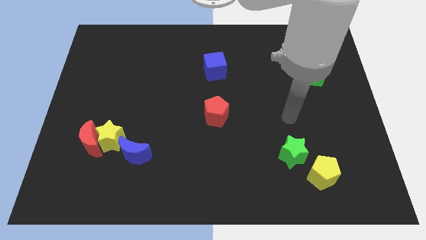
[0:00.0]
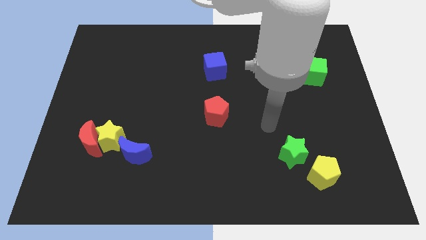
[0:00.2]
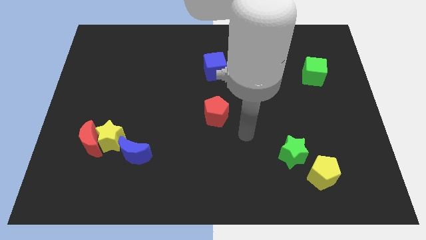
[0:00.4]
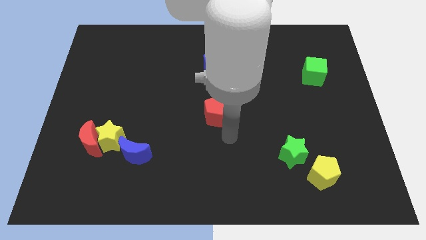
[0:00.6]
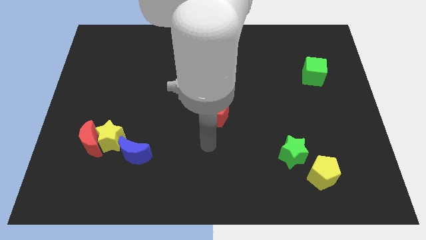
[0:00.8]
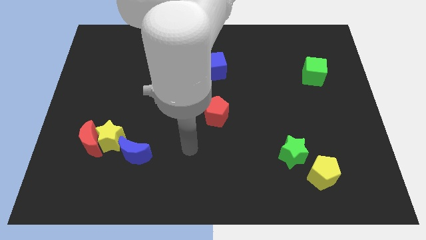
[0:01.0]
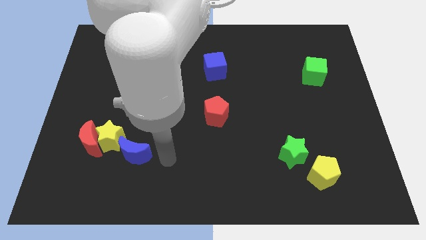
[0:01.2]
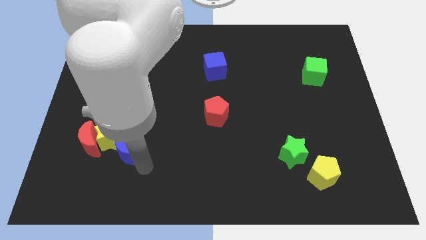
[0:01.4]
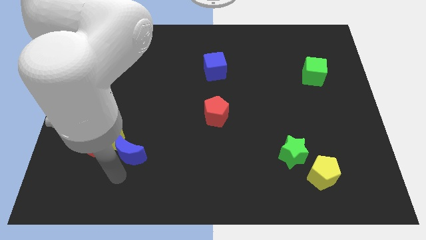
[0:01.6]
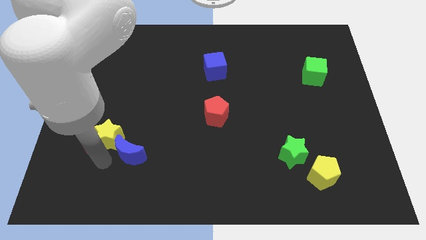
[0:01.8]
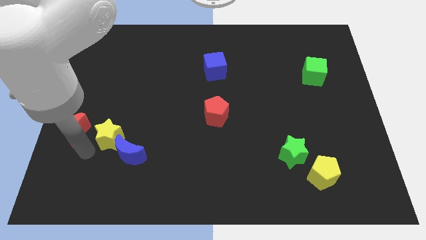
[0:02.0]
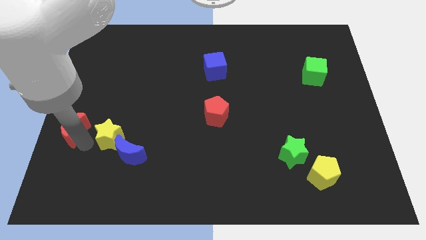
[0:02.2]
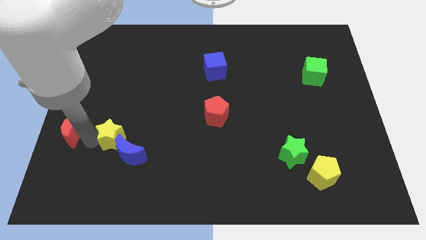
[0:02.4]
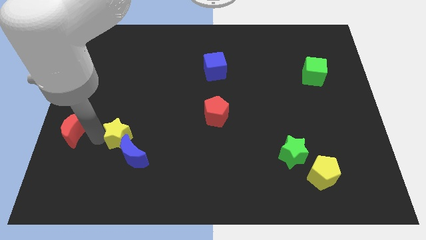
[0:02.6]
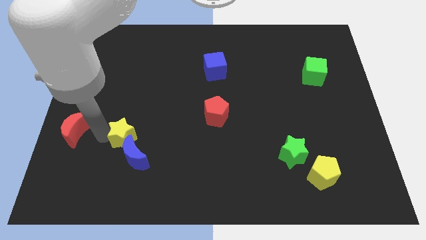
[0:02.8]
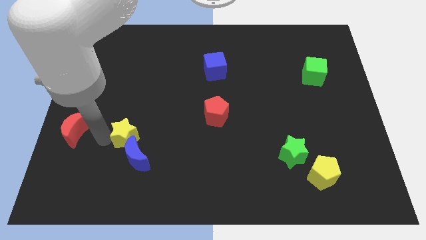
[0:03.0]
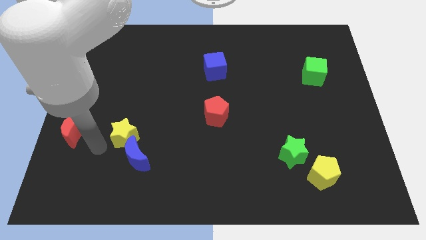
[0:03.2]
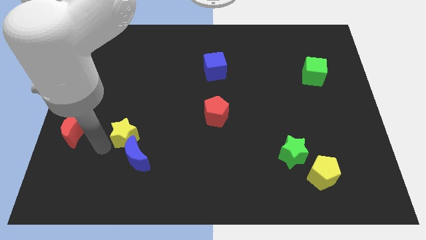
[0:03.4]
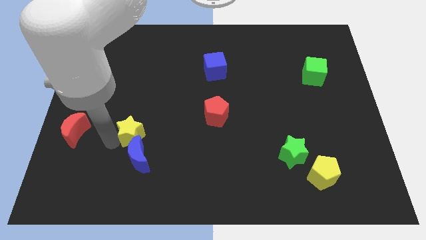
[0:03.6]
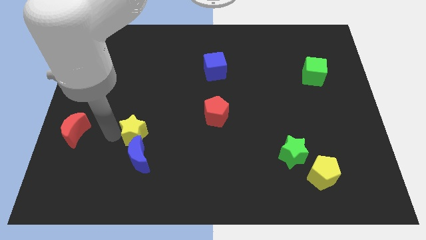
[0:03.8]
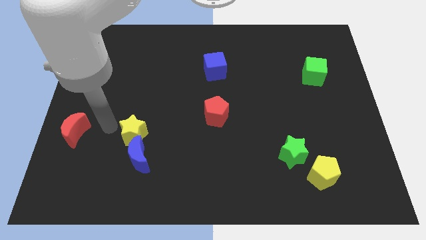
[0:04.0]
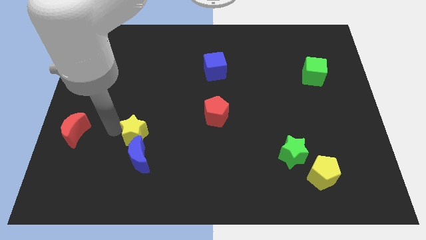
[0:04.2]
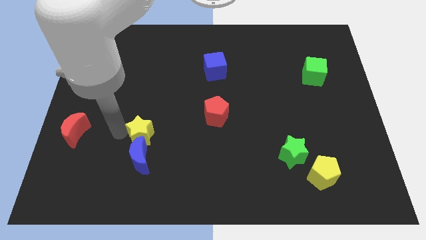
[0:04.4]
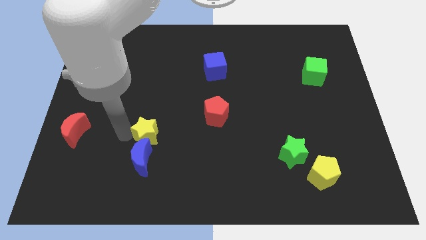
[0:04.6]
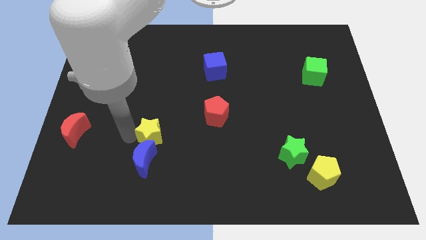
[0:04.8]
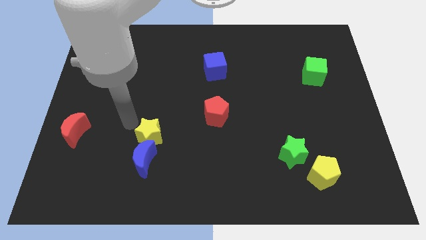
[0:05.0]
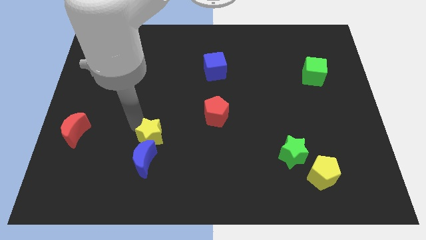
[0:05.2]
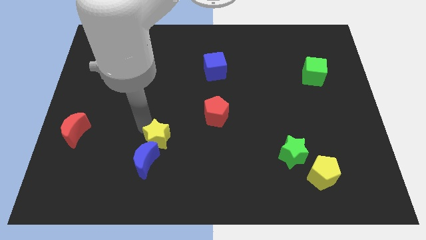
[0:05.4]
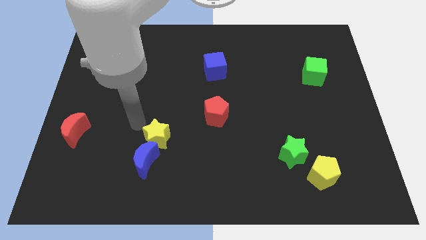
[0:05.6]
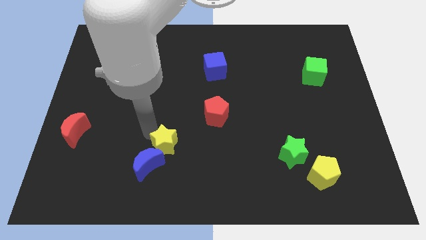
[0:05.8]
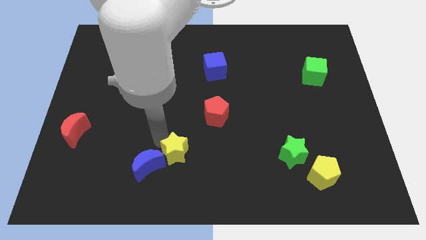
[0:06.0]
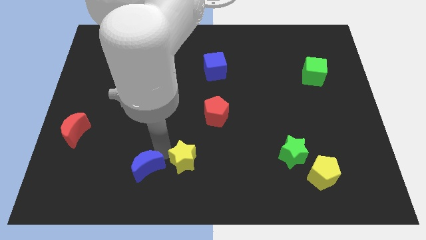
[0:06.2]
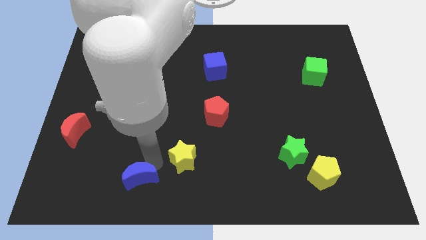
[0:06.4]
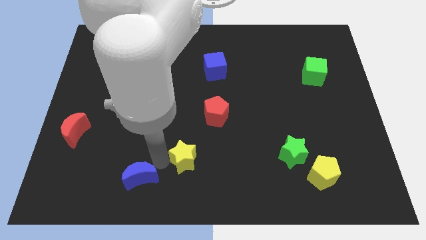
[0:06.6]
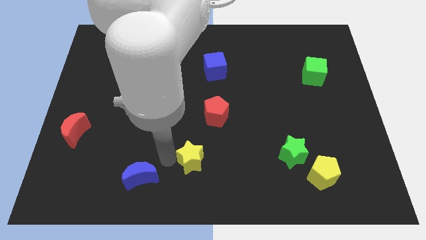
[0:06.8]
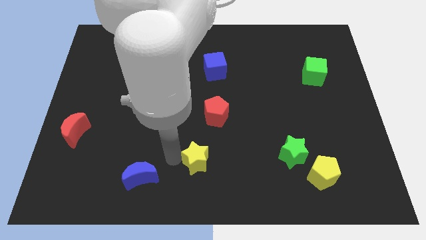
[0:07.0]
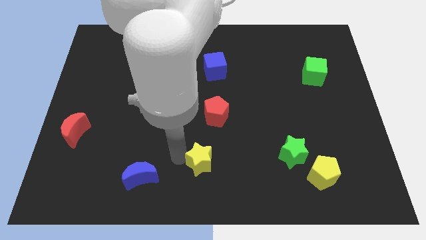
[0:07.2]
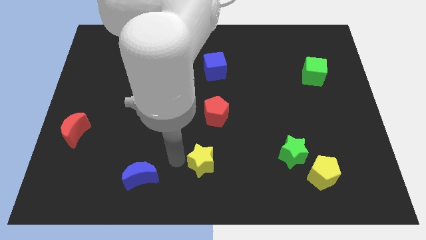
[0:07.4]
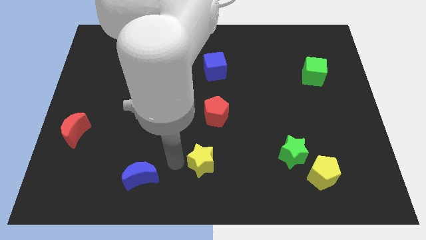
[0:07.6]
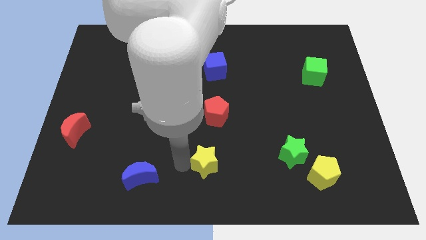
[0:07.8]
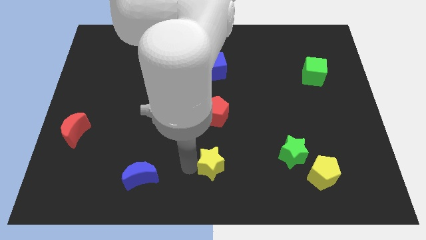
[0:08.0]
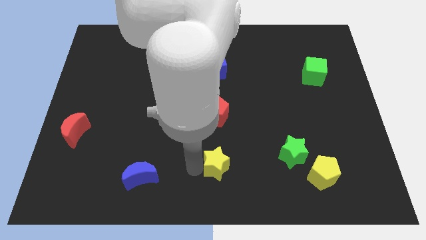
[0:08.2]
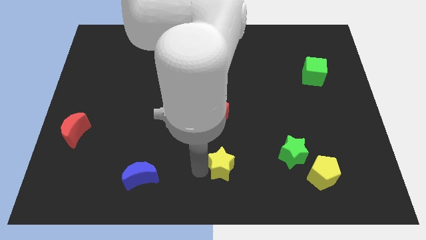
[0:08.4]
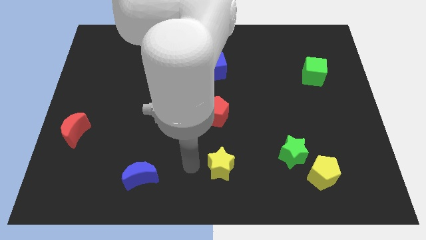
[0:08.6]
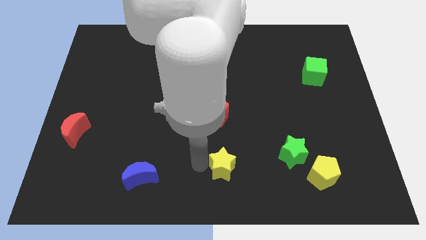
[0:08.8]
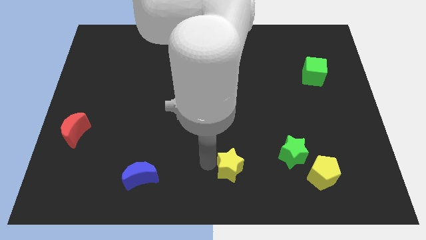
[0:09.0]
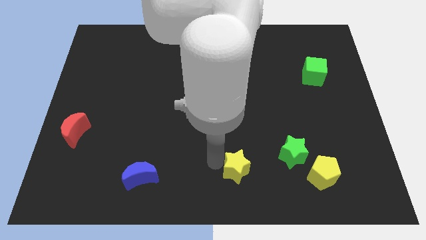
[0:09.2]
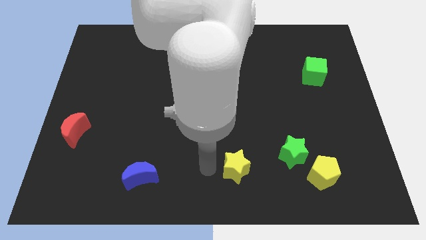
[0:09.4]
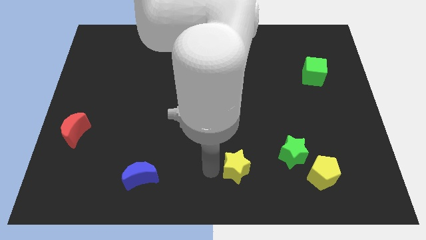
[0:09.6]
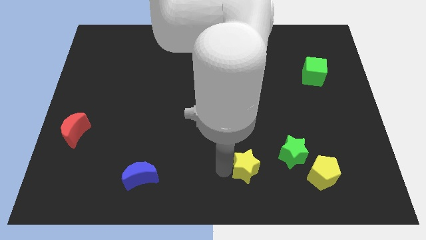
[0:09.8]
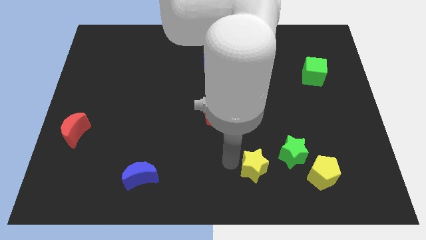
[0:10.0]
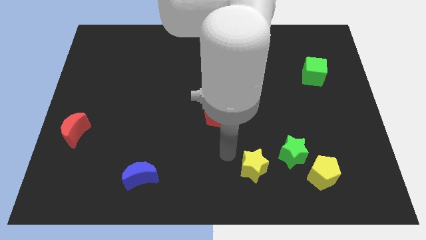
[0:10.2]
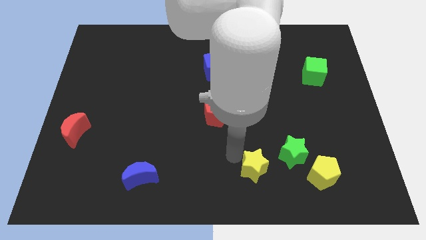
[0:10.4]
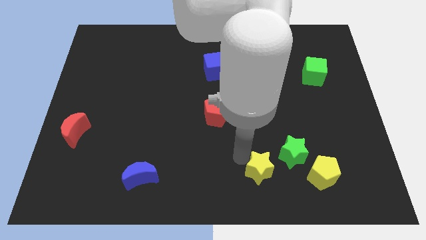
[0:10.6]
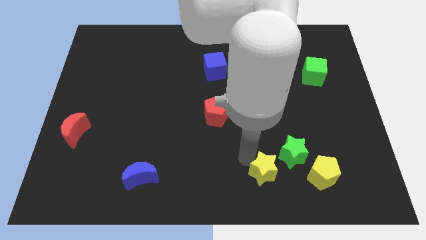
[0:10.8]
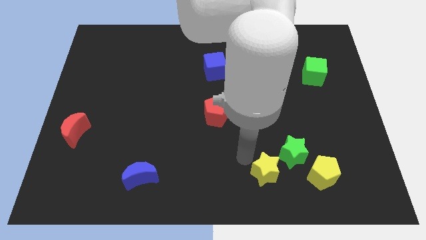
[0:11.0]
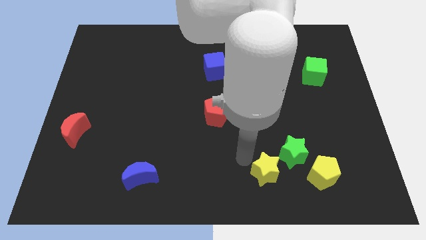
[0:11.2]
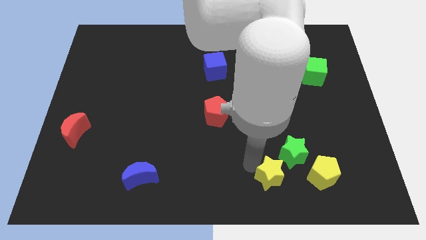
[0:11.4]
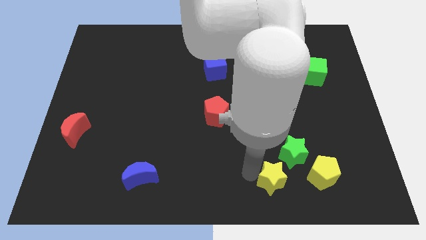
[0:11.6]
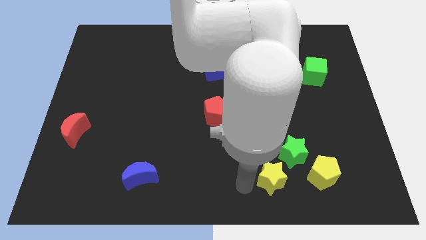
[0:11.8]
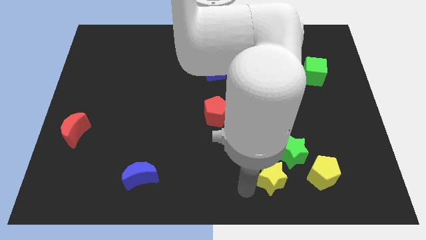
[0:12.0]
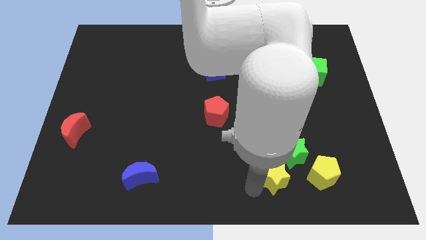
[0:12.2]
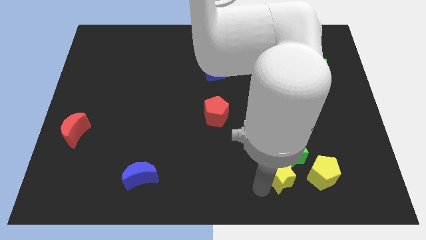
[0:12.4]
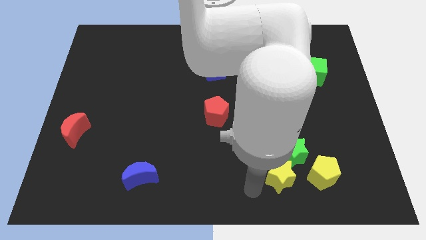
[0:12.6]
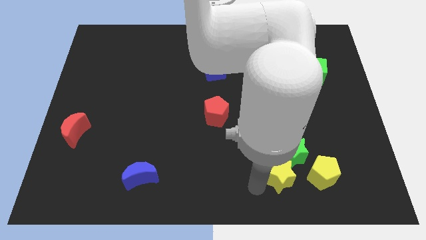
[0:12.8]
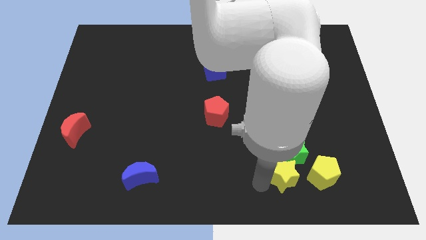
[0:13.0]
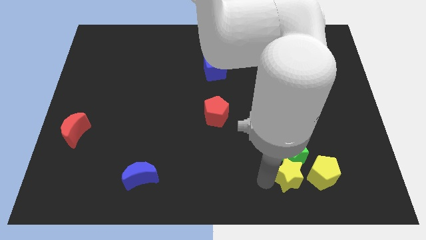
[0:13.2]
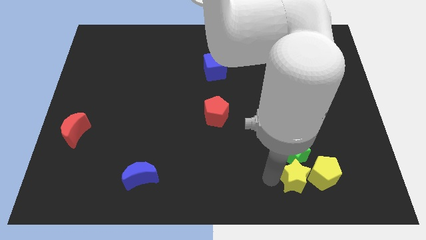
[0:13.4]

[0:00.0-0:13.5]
move the yellow star towards the yellow pentagon
